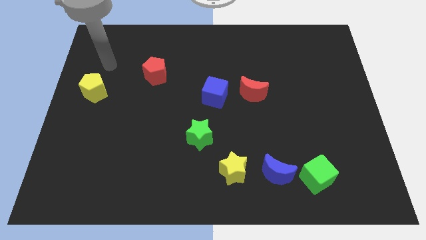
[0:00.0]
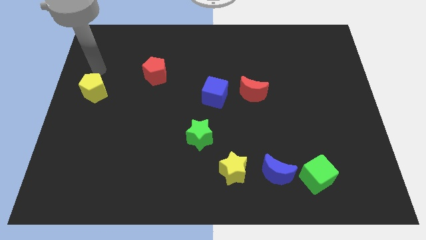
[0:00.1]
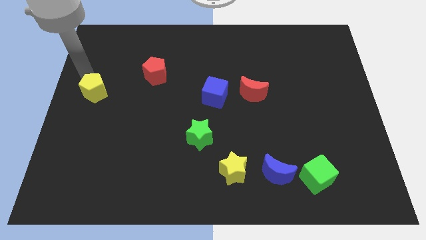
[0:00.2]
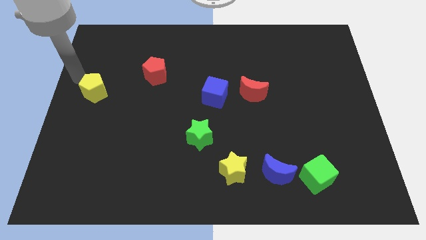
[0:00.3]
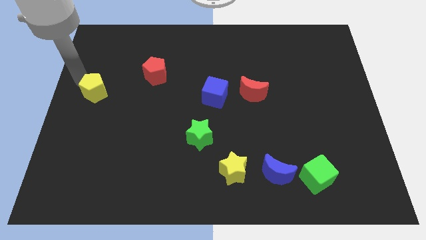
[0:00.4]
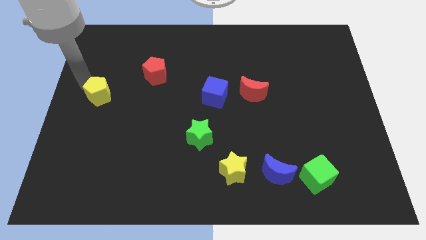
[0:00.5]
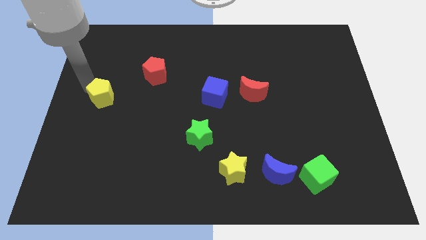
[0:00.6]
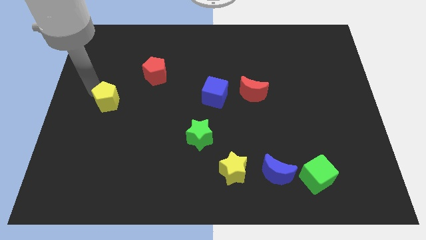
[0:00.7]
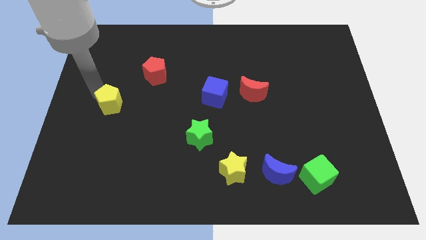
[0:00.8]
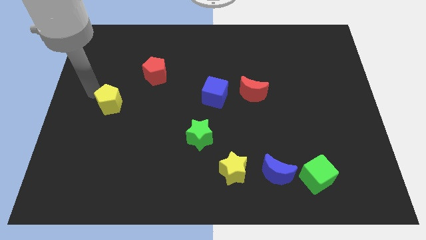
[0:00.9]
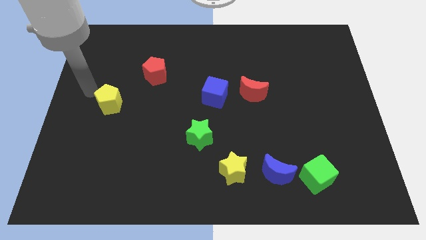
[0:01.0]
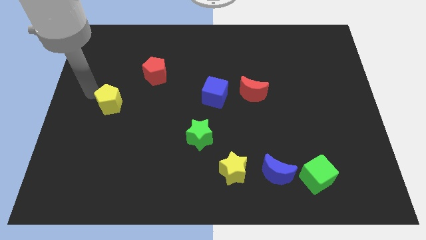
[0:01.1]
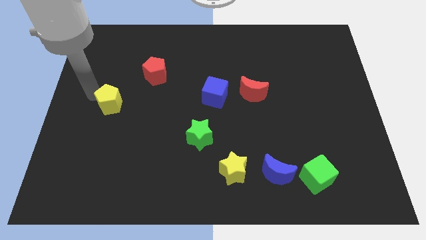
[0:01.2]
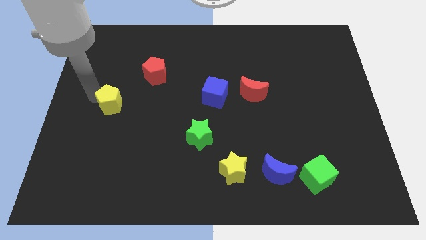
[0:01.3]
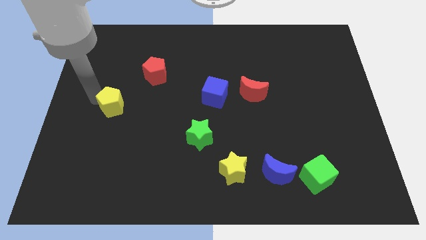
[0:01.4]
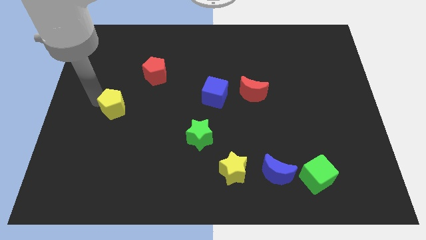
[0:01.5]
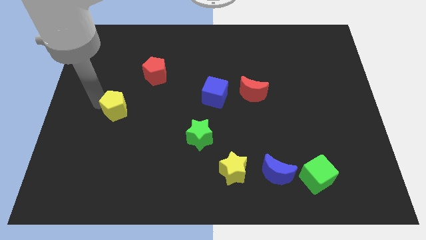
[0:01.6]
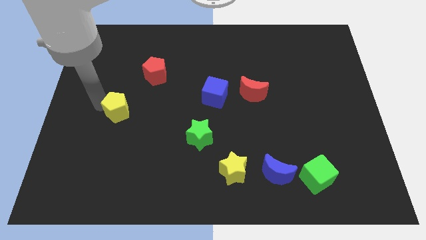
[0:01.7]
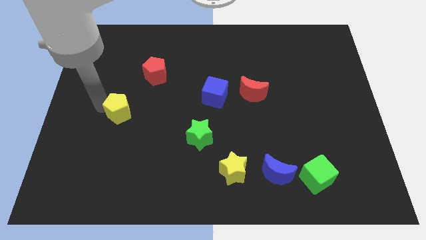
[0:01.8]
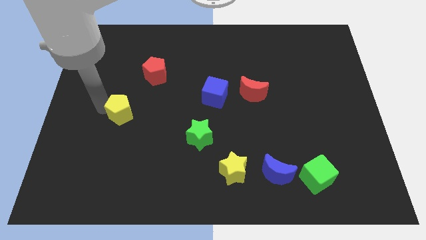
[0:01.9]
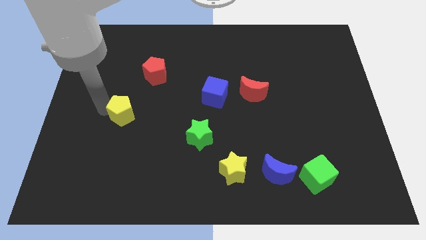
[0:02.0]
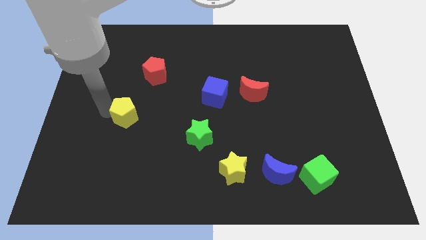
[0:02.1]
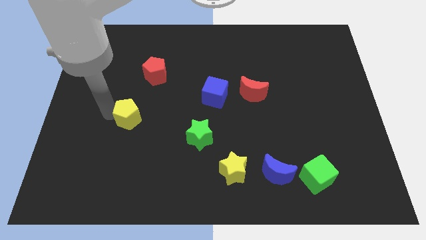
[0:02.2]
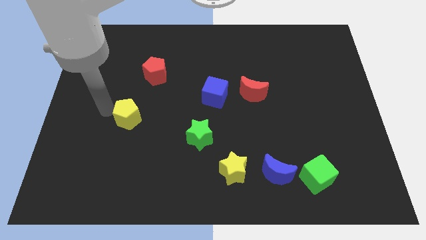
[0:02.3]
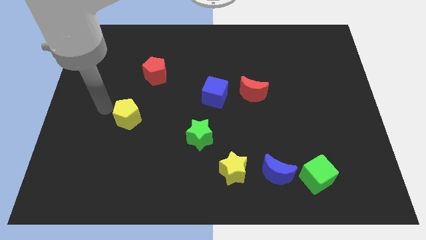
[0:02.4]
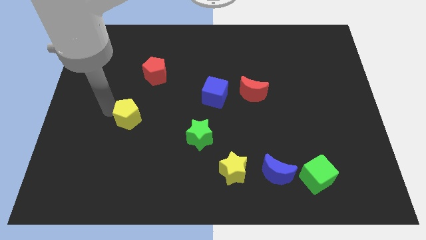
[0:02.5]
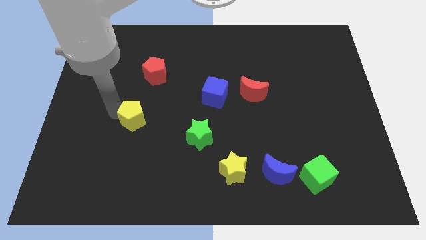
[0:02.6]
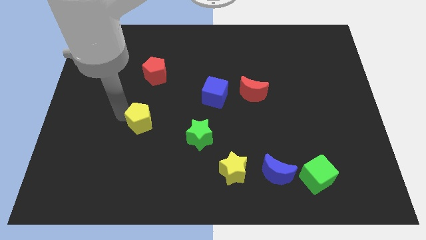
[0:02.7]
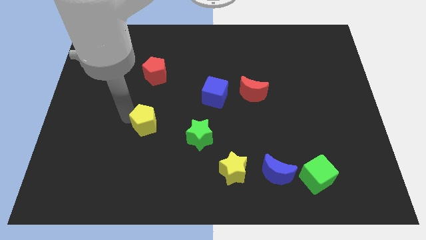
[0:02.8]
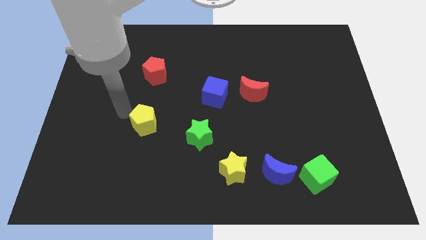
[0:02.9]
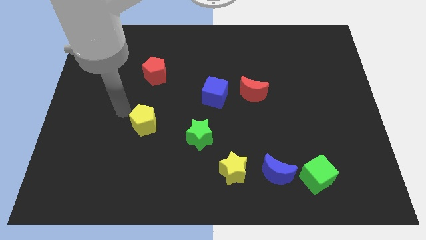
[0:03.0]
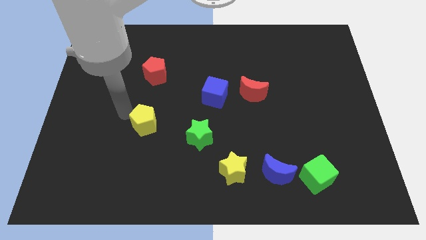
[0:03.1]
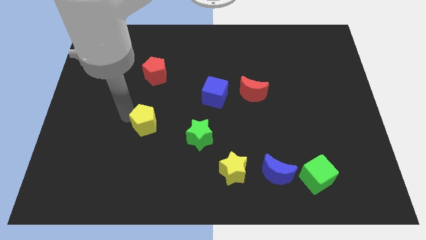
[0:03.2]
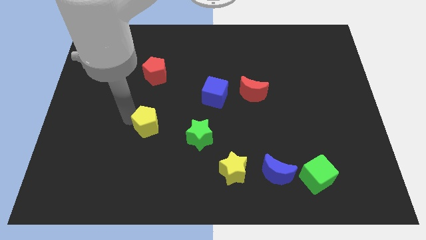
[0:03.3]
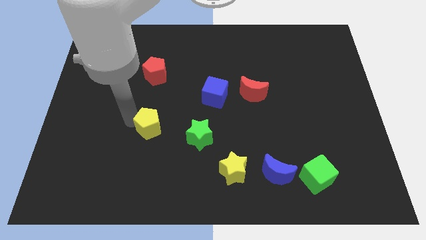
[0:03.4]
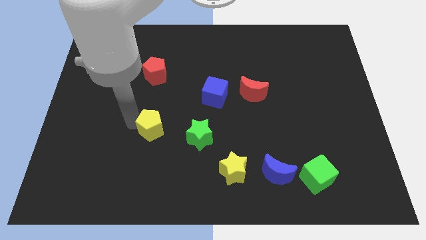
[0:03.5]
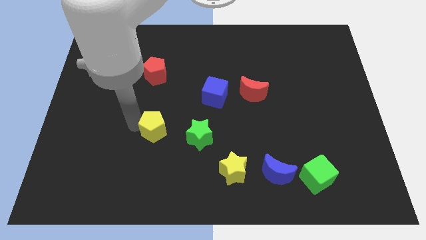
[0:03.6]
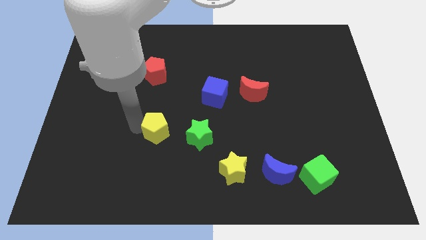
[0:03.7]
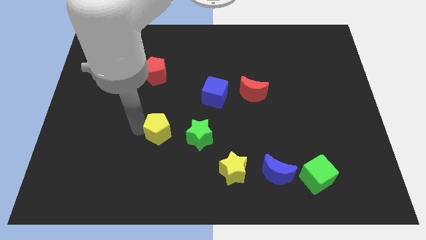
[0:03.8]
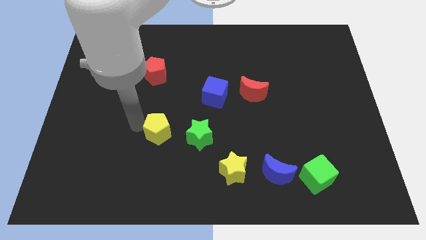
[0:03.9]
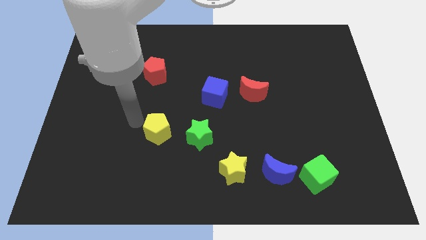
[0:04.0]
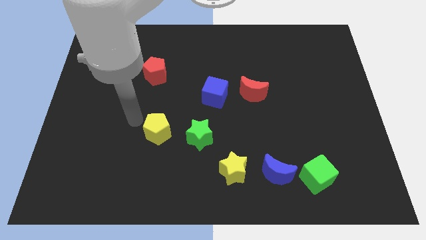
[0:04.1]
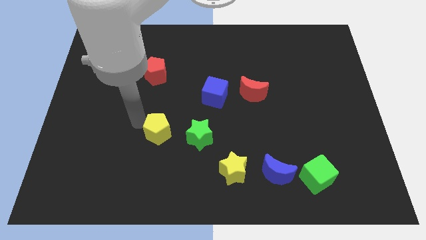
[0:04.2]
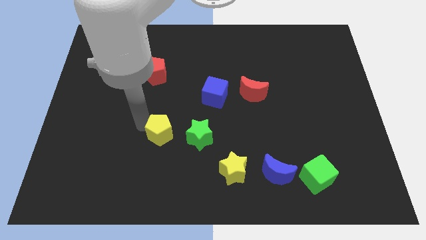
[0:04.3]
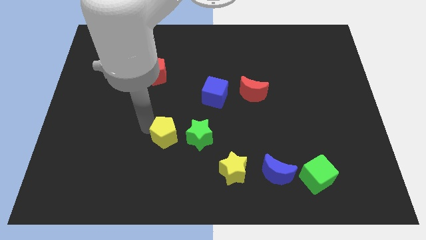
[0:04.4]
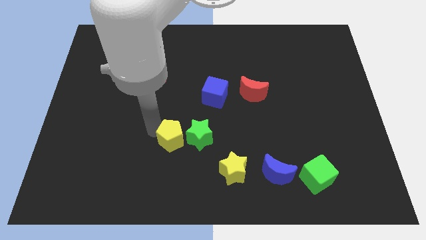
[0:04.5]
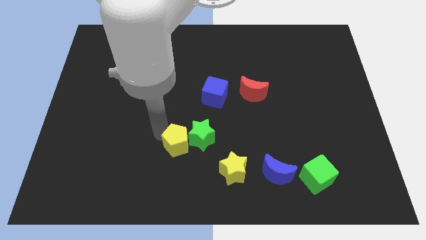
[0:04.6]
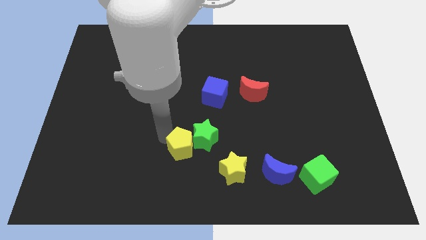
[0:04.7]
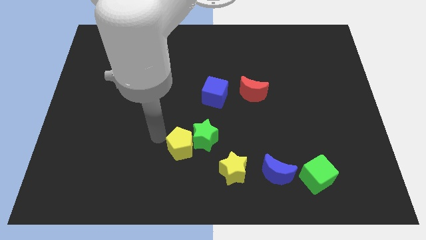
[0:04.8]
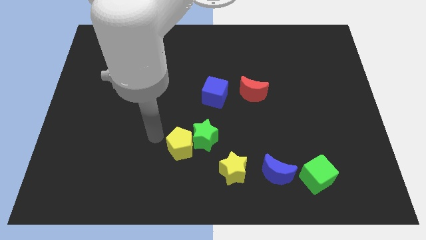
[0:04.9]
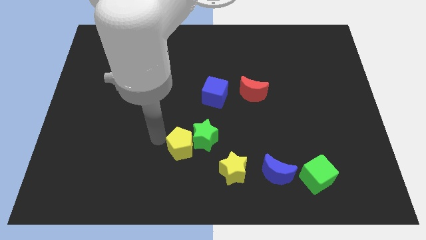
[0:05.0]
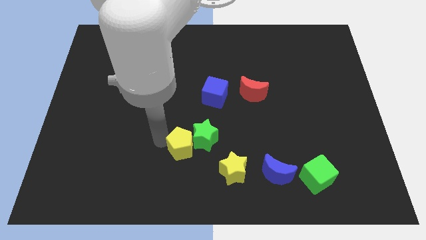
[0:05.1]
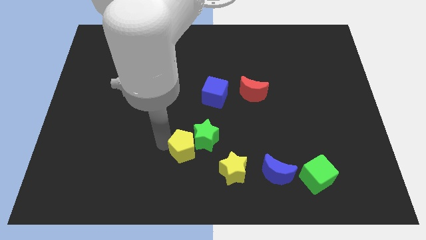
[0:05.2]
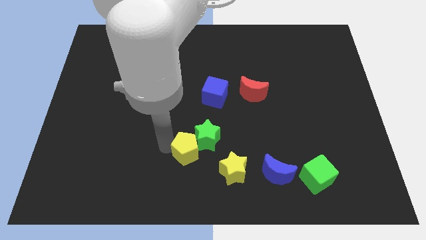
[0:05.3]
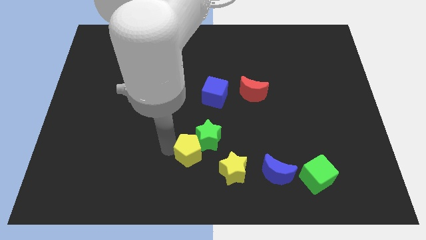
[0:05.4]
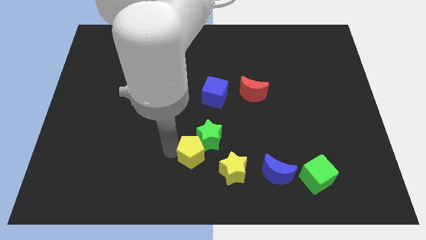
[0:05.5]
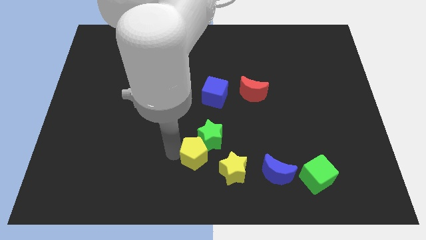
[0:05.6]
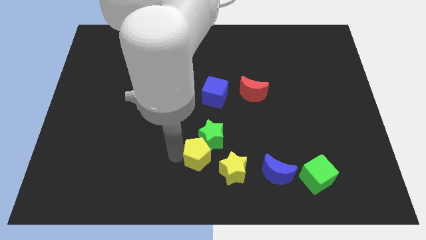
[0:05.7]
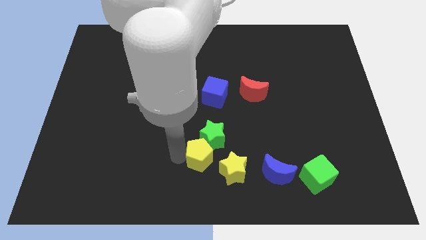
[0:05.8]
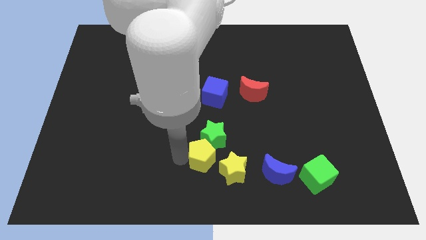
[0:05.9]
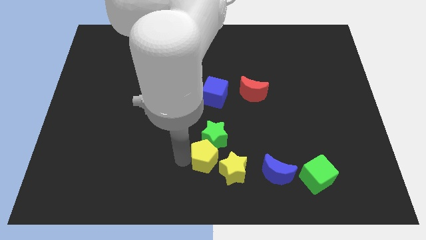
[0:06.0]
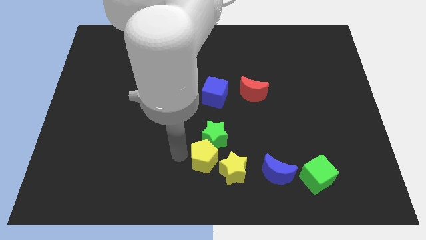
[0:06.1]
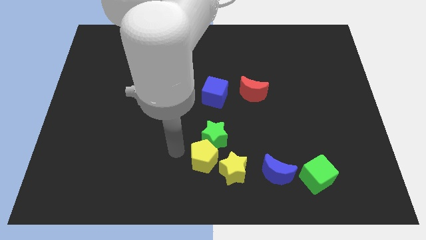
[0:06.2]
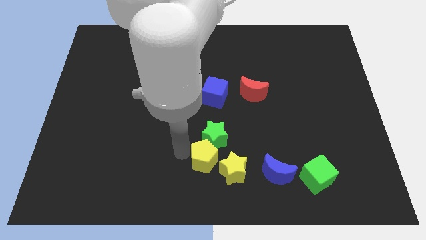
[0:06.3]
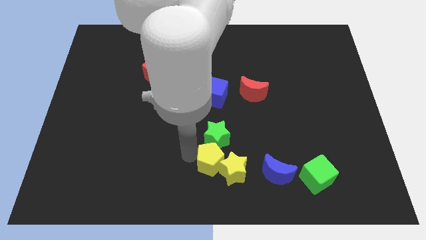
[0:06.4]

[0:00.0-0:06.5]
put the yellow pentagon towards the yellow star
